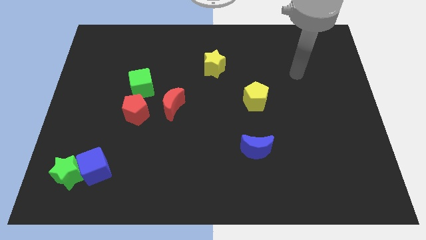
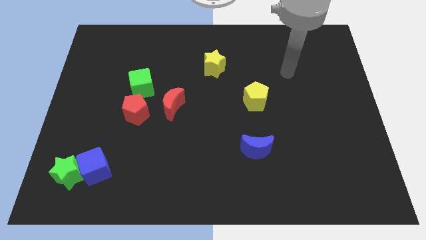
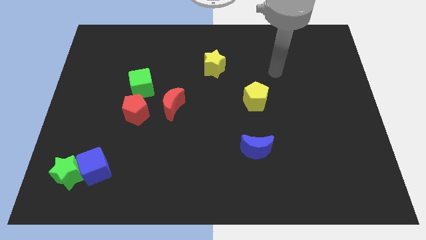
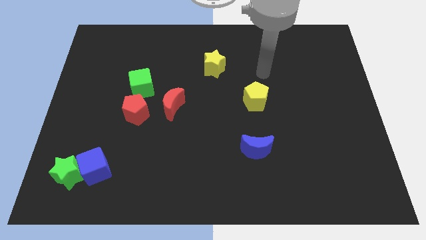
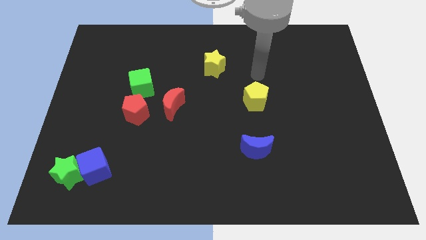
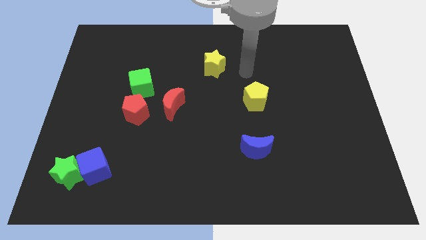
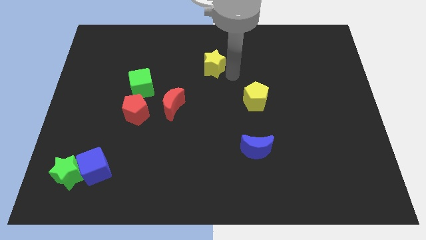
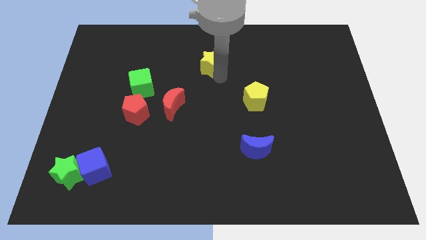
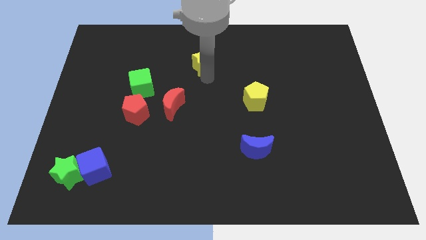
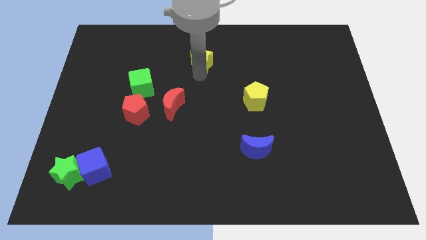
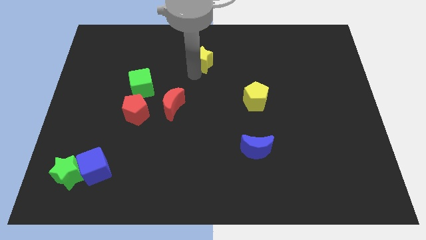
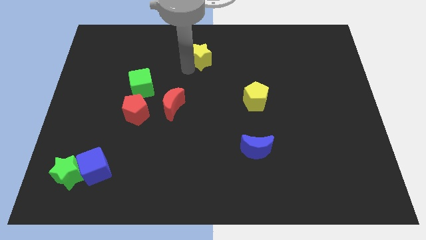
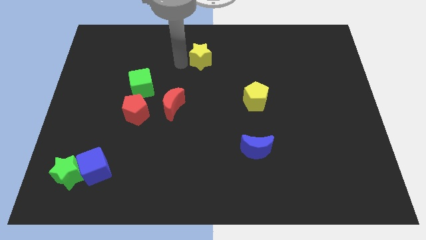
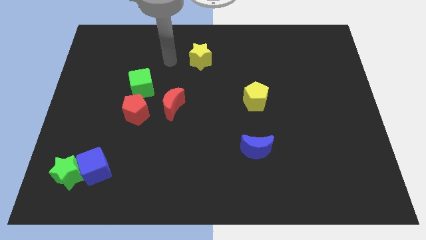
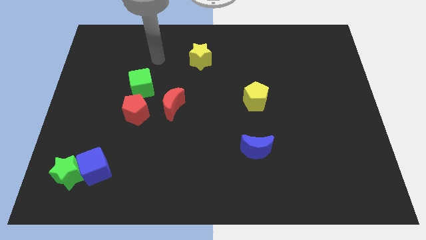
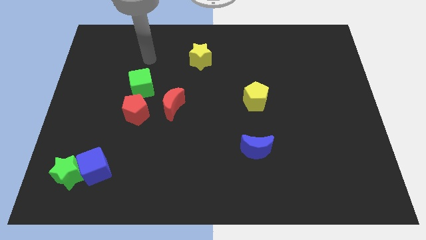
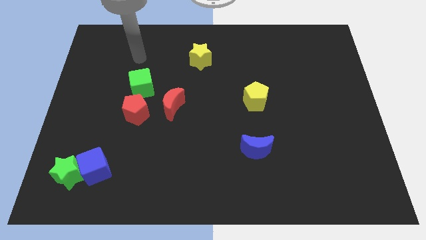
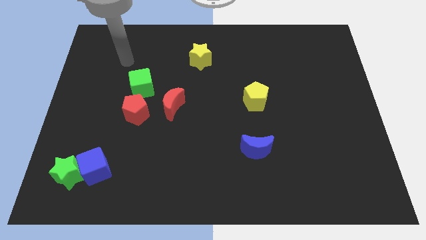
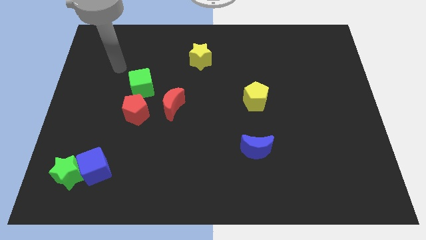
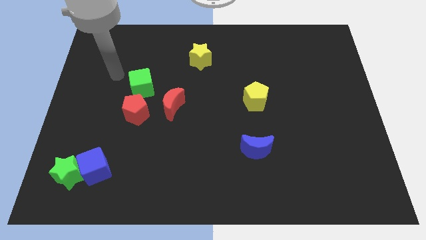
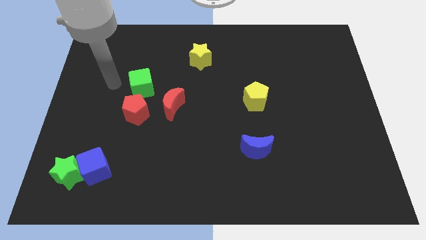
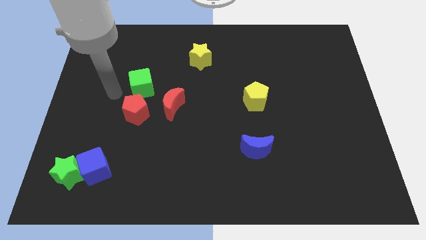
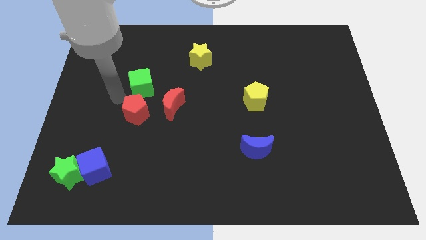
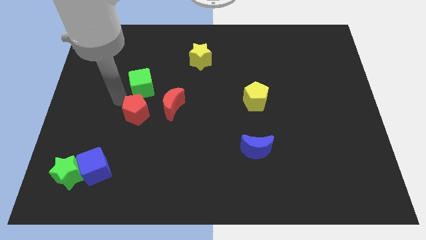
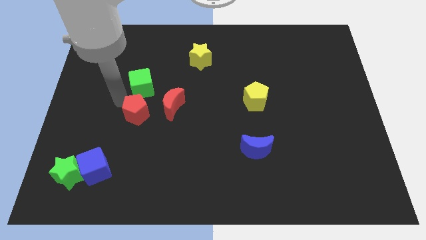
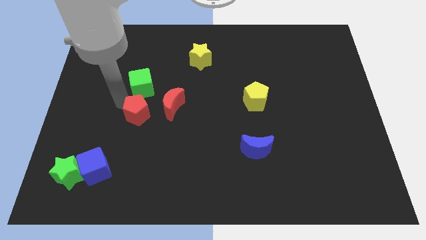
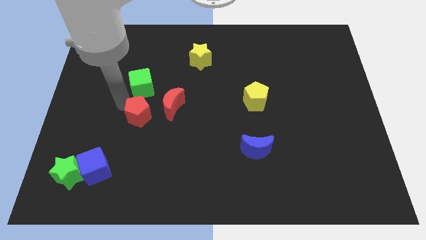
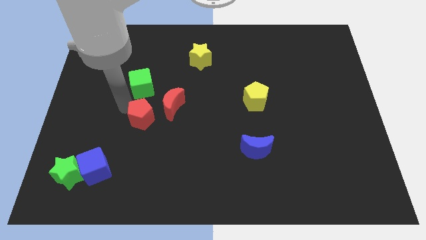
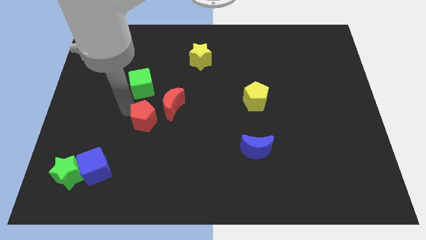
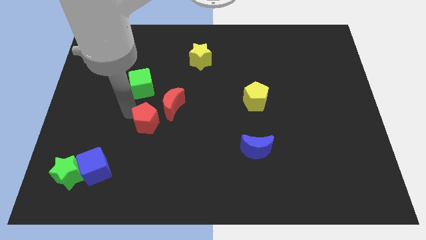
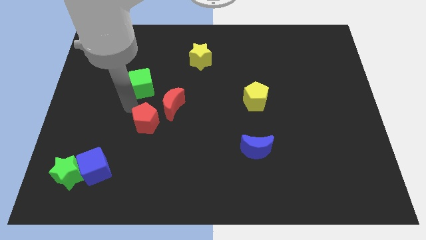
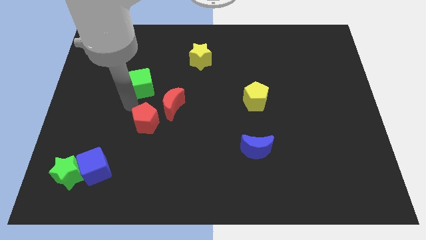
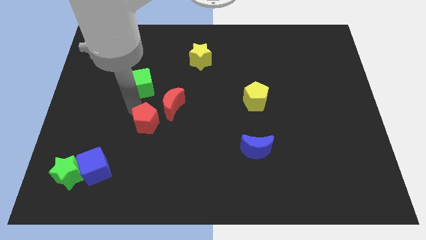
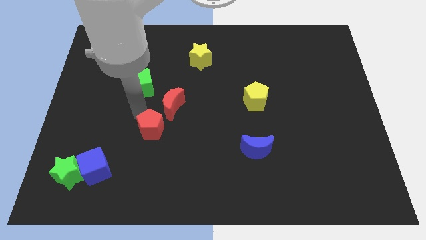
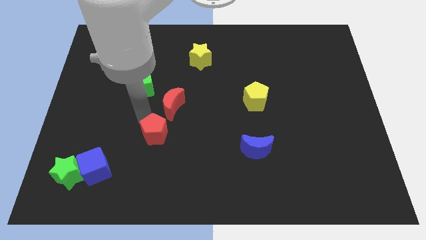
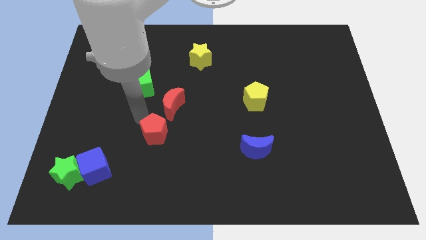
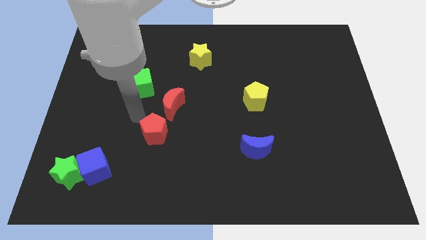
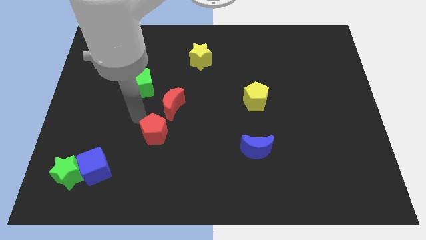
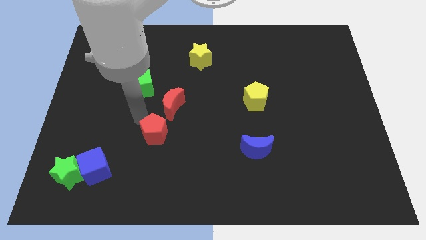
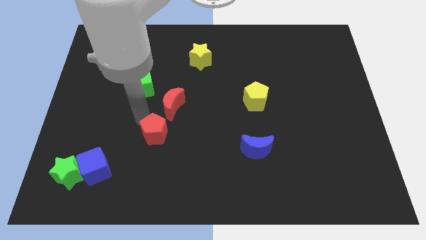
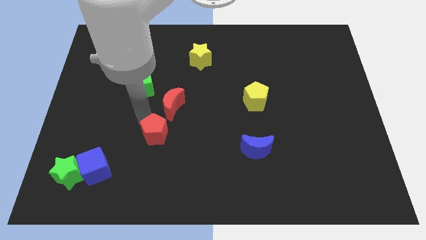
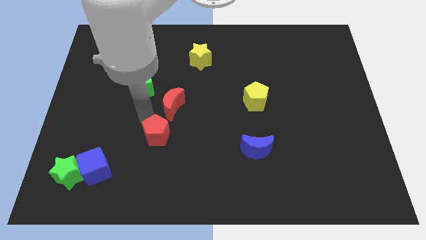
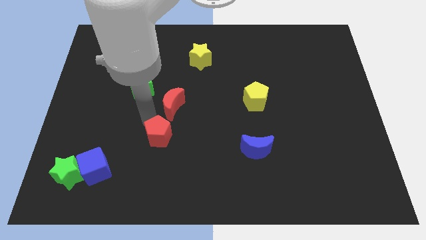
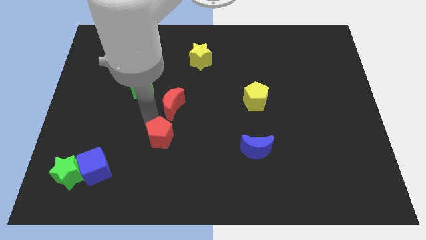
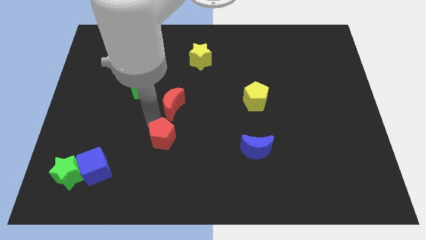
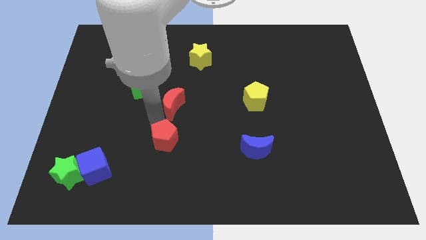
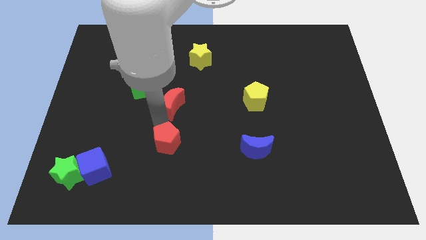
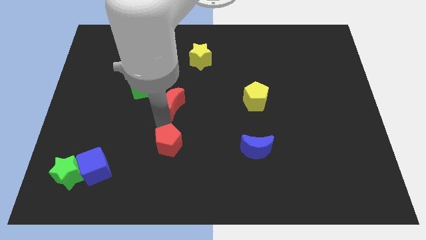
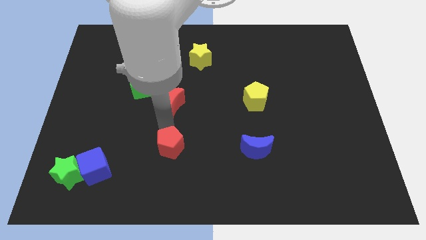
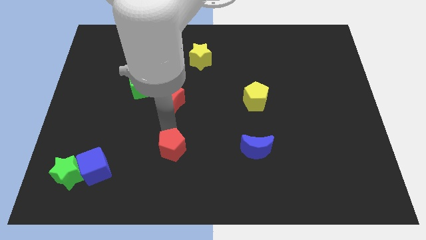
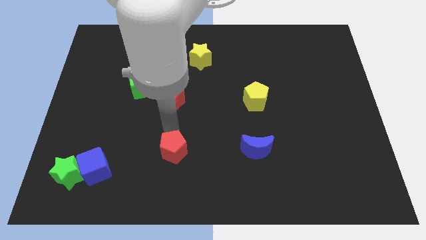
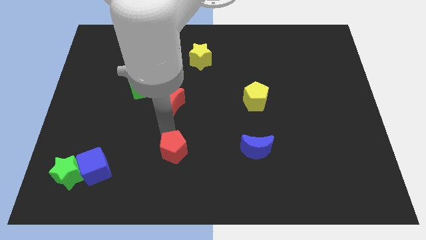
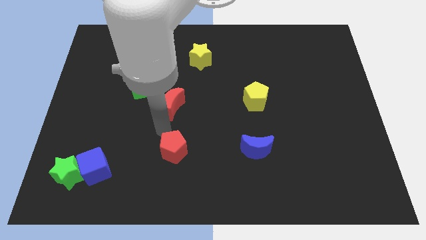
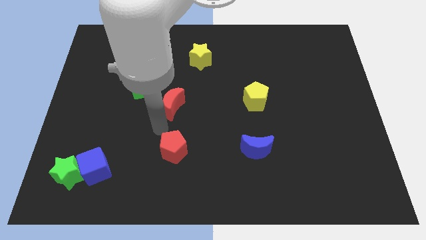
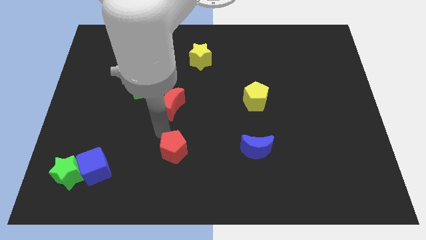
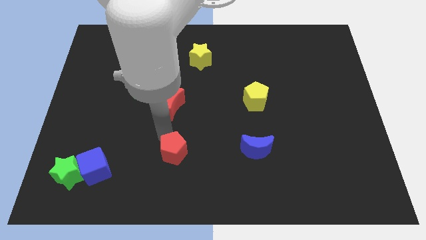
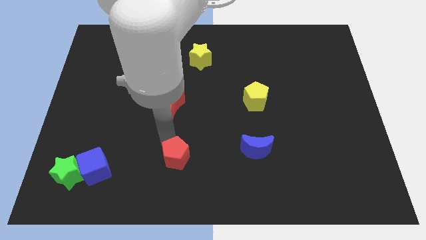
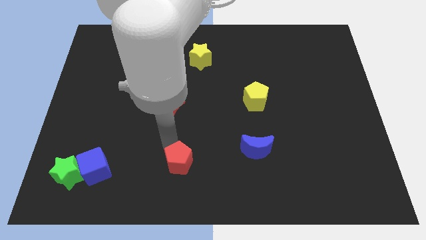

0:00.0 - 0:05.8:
slide the red pentagon to the bottom side
